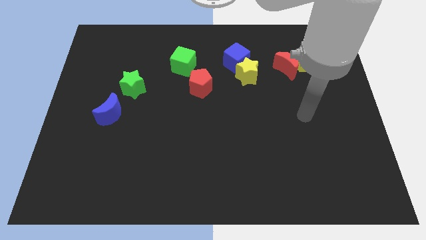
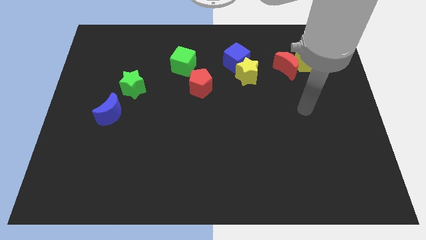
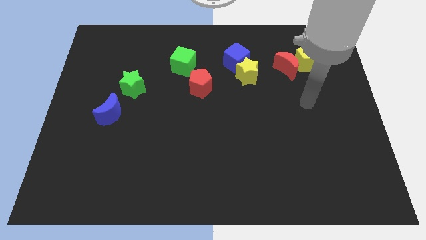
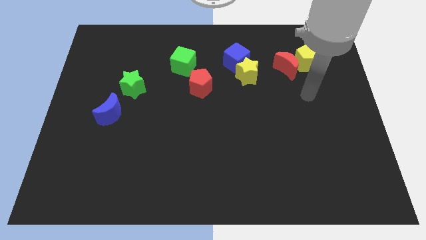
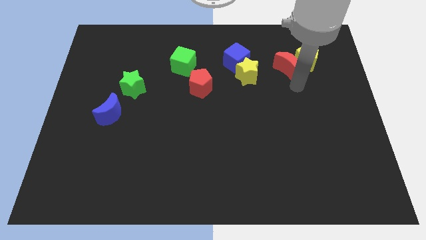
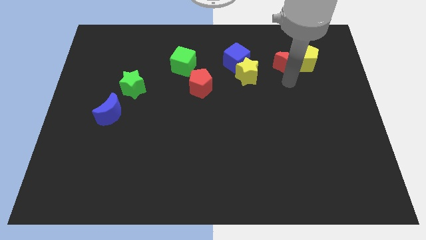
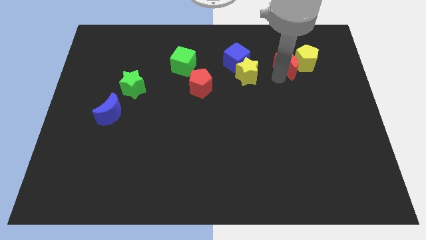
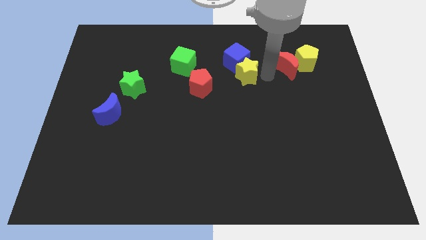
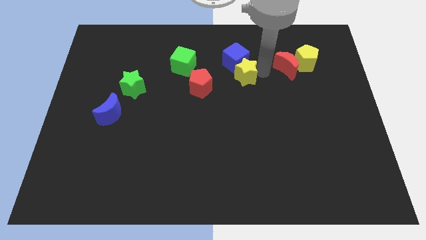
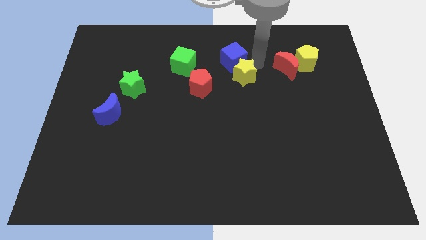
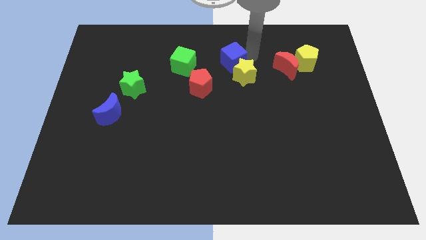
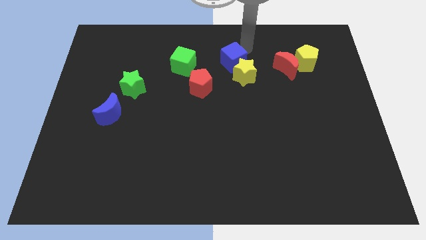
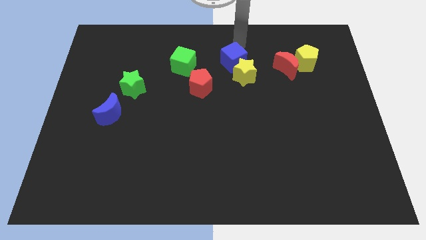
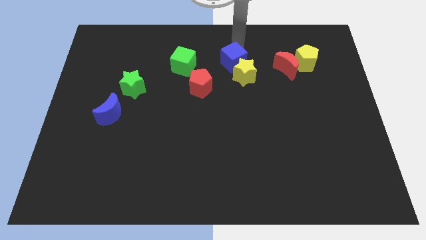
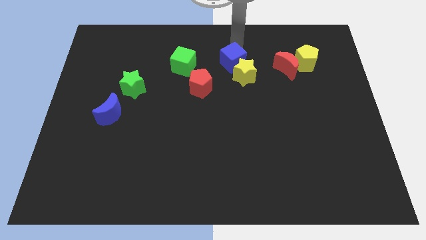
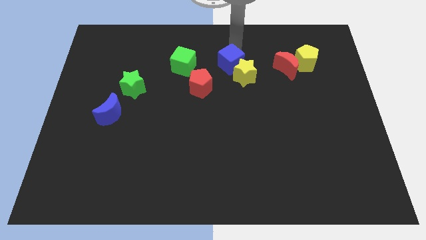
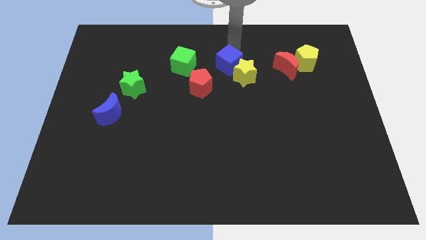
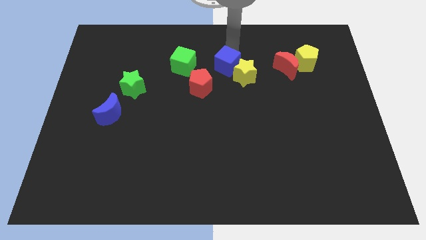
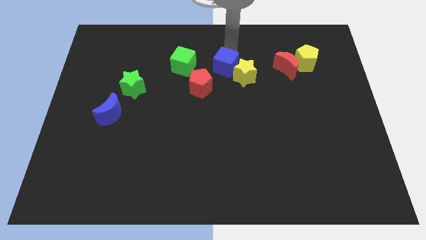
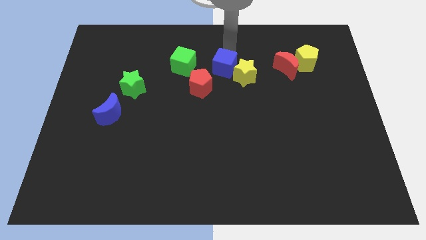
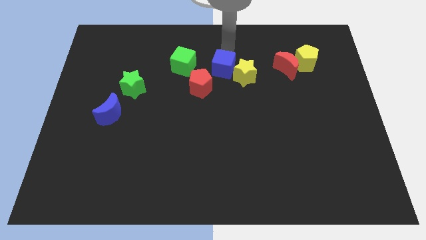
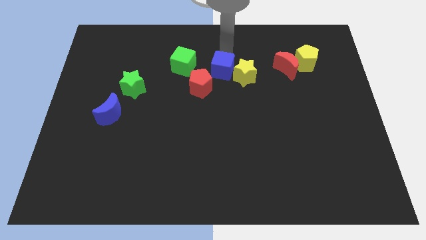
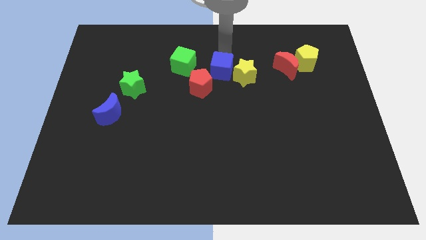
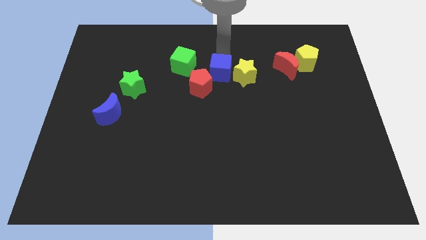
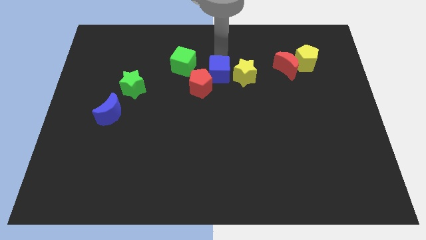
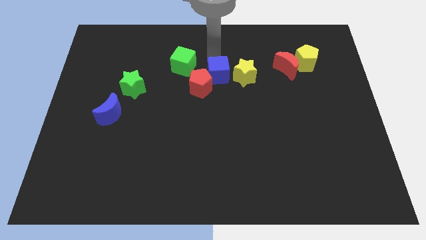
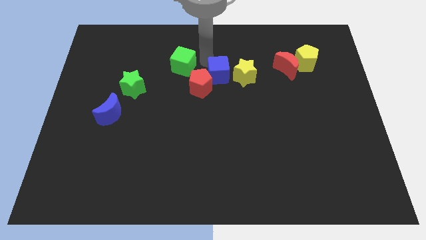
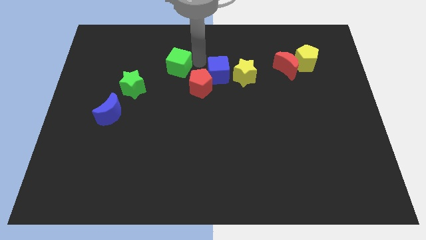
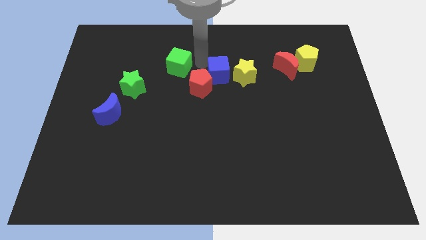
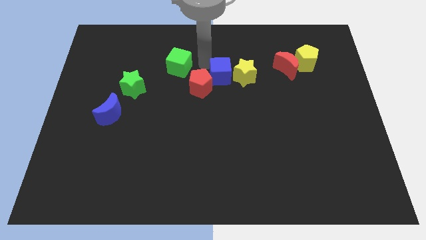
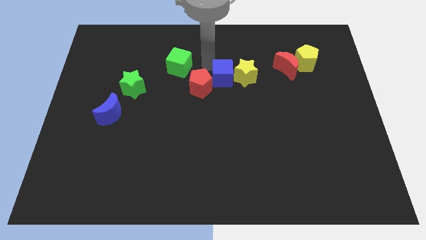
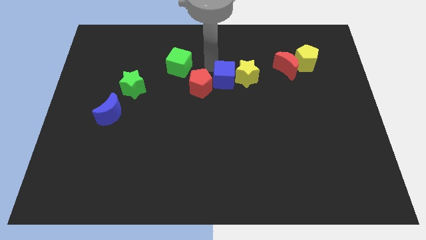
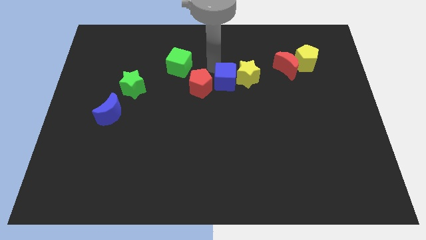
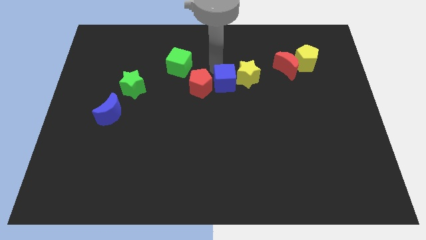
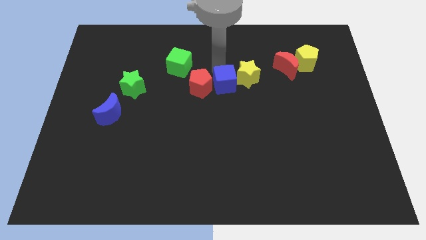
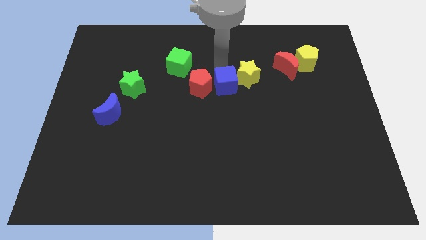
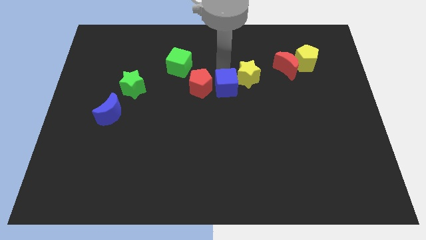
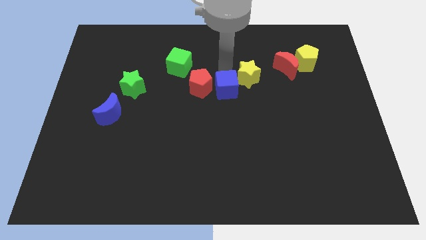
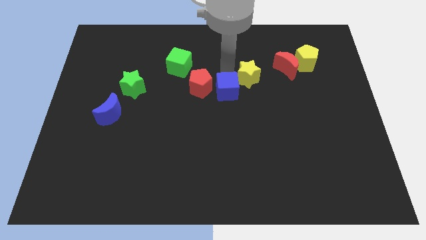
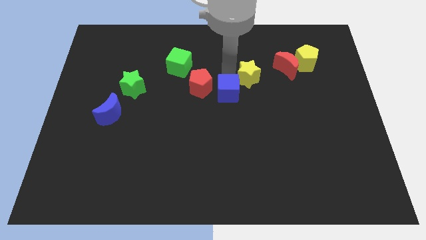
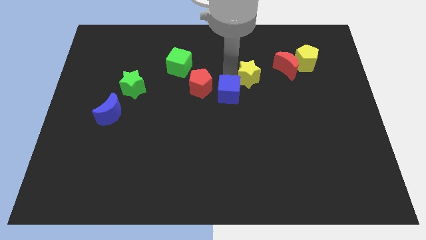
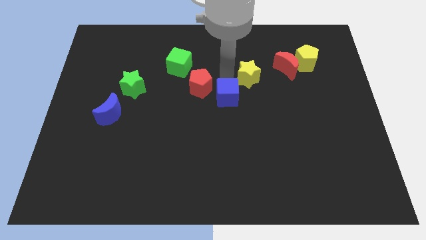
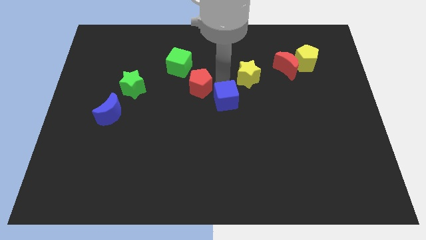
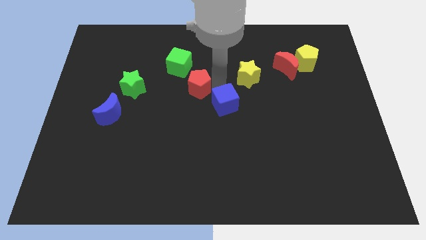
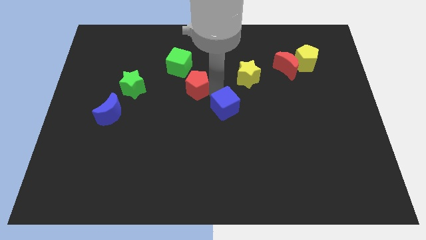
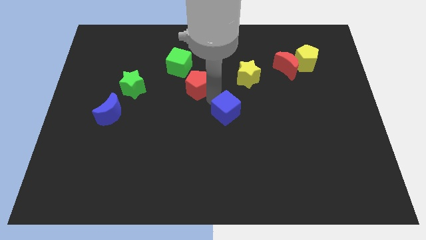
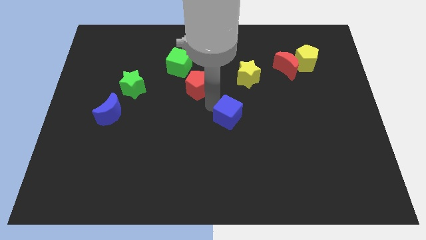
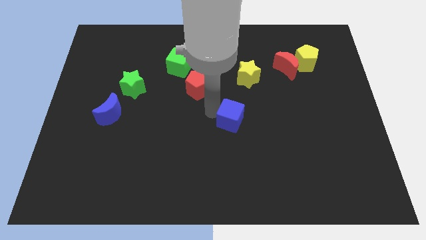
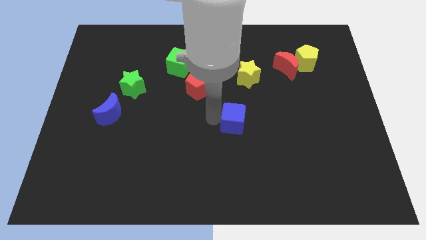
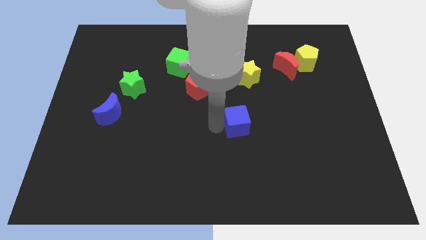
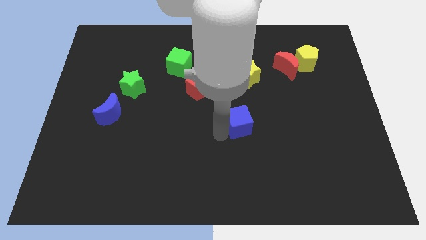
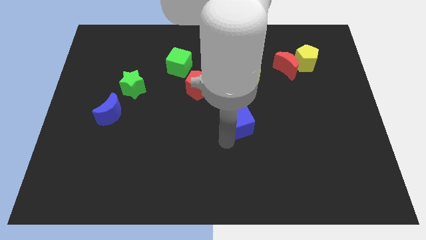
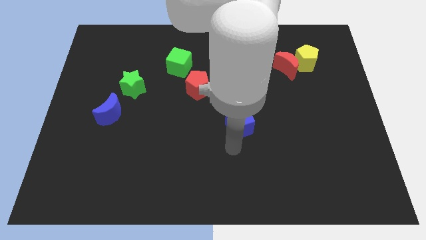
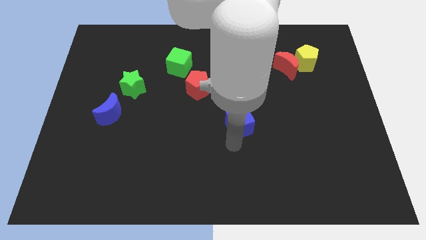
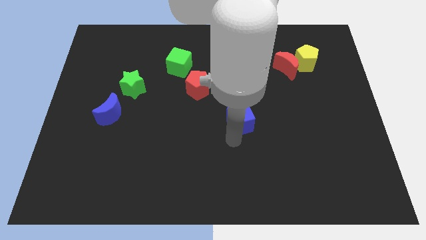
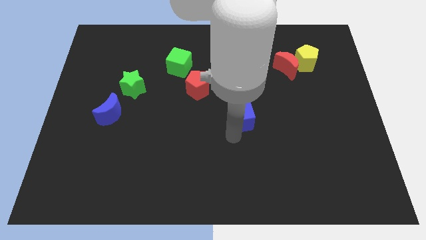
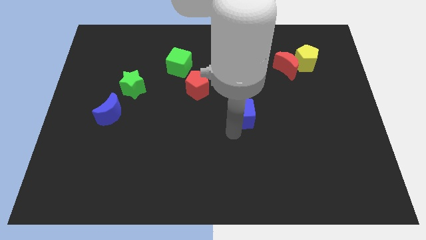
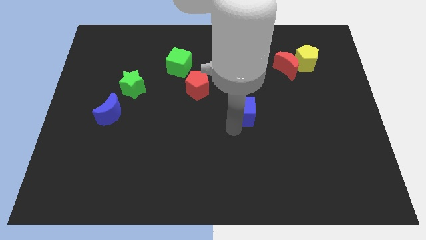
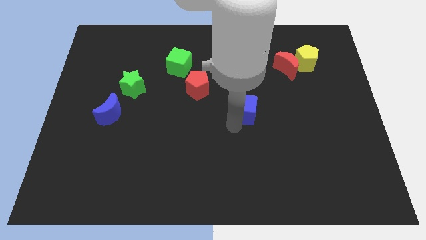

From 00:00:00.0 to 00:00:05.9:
slide the blue cube down and to the right slightly

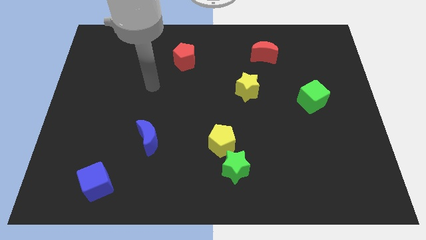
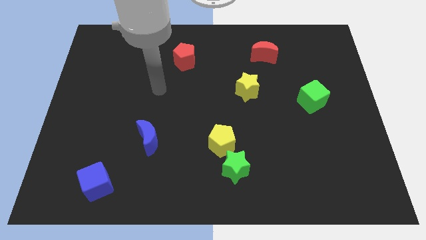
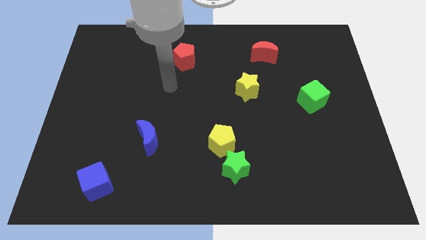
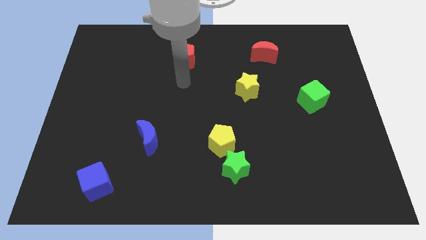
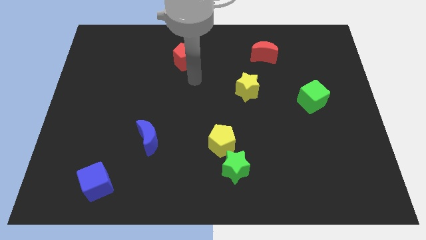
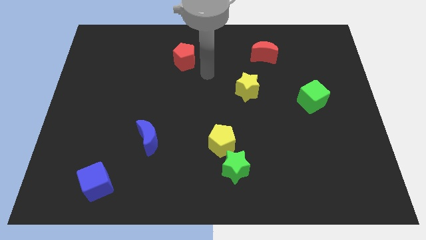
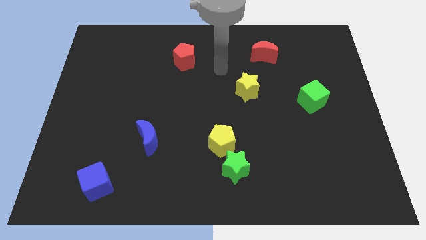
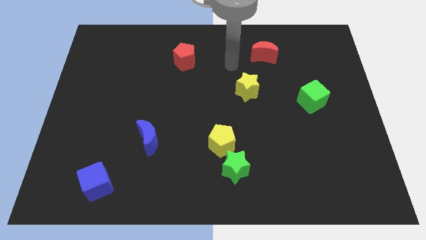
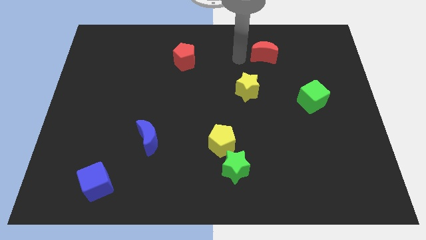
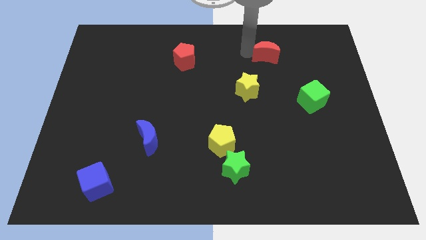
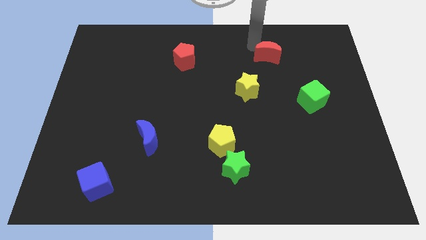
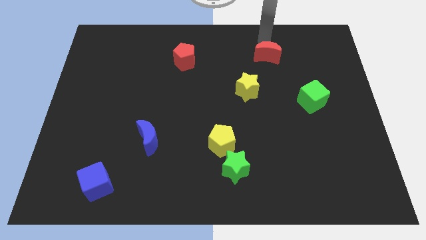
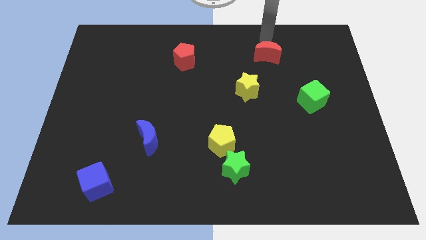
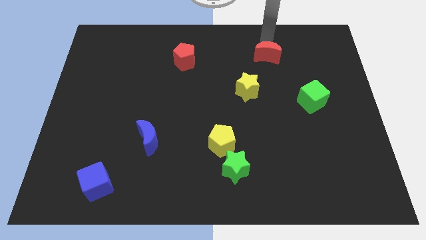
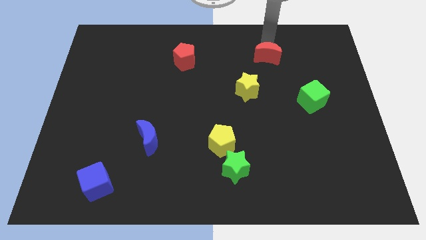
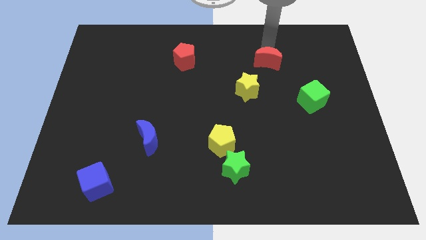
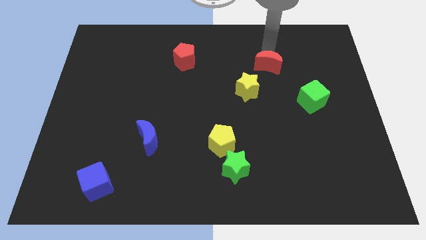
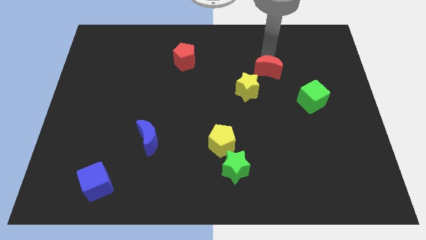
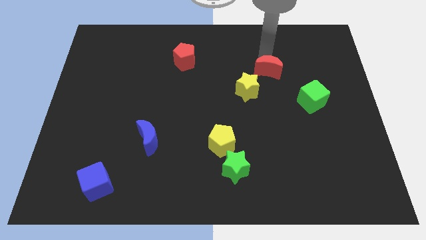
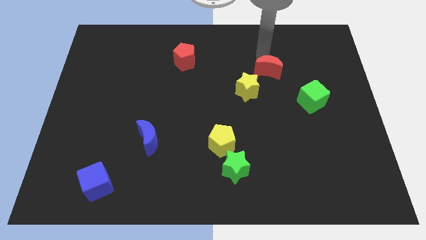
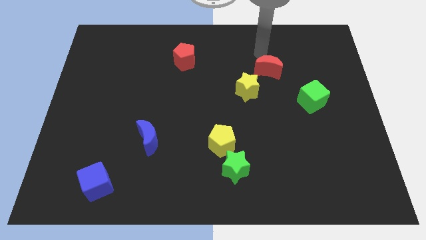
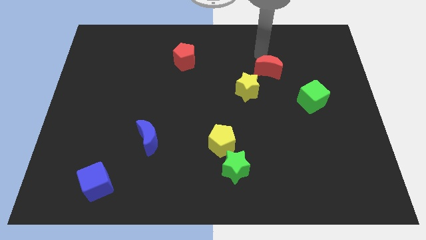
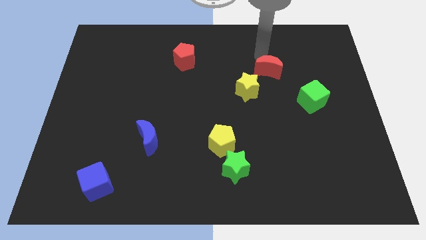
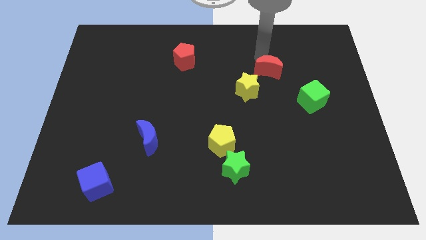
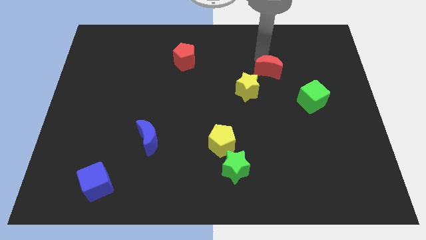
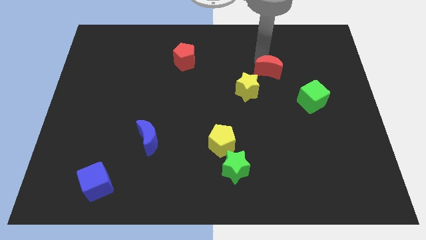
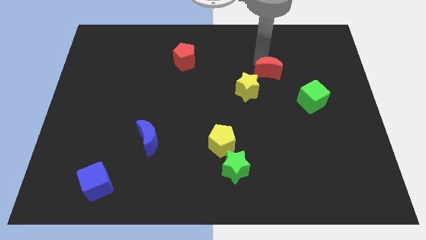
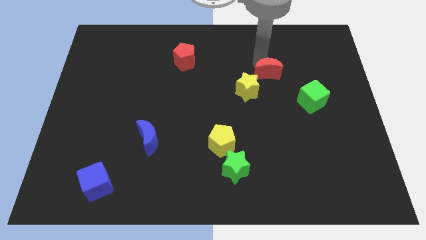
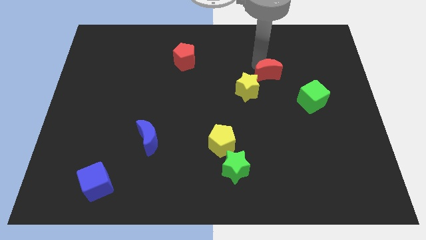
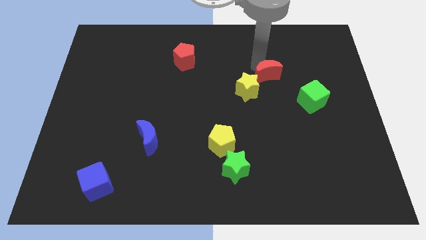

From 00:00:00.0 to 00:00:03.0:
slightly move the red moon downwards
